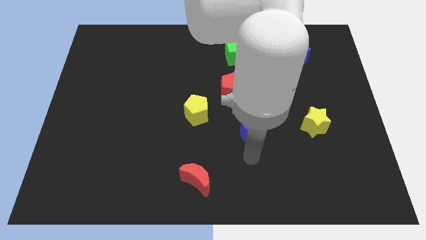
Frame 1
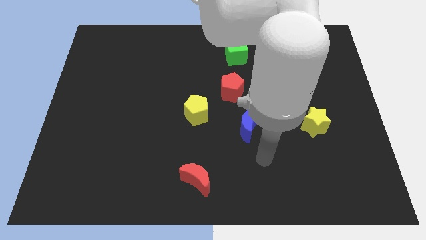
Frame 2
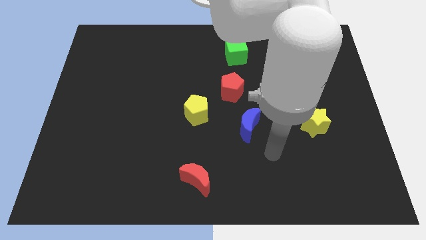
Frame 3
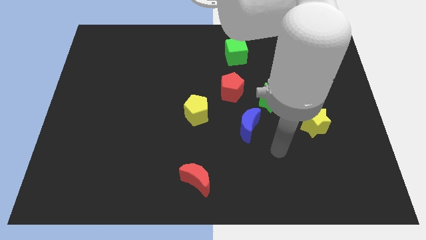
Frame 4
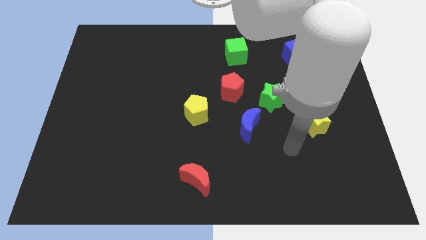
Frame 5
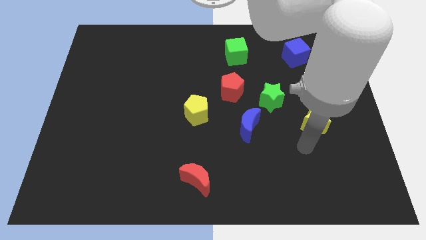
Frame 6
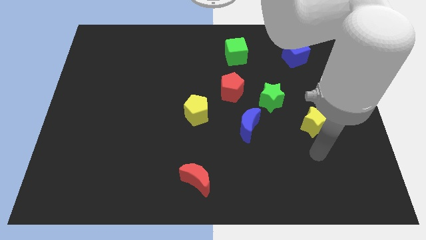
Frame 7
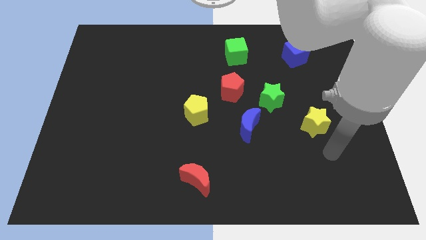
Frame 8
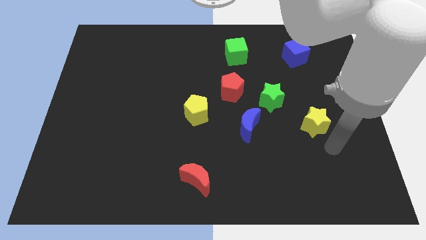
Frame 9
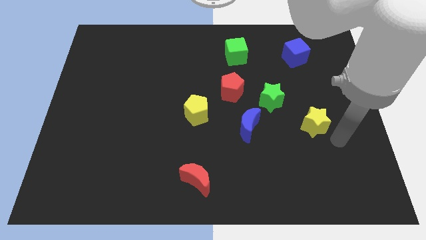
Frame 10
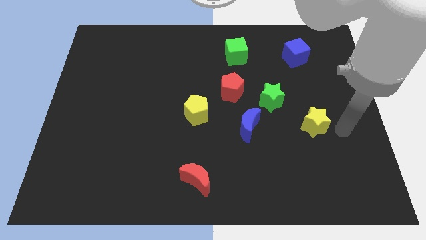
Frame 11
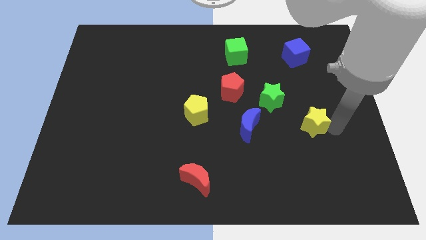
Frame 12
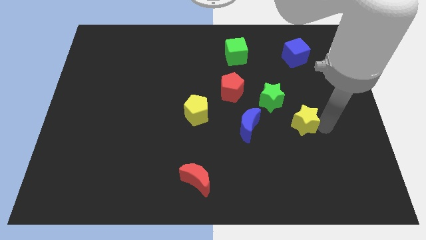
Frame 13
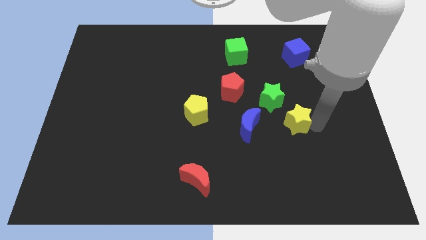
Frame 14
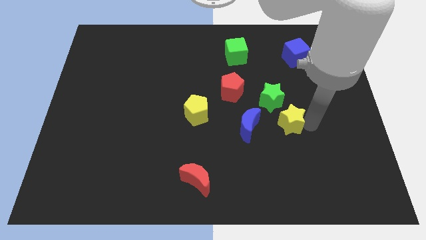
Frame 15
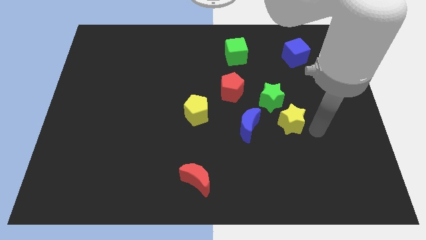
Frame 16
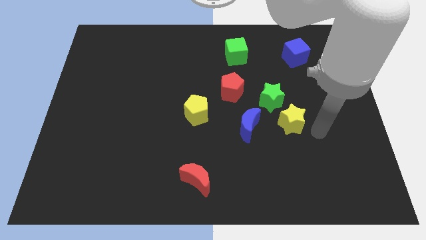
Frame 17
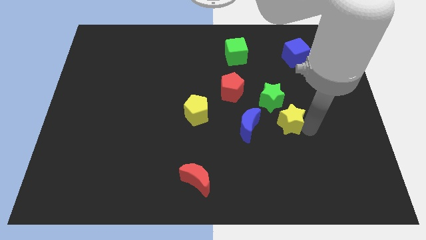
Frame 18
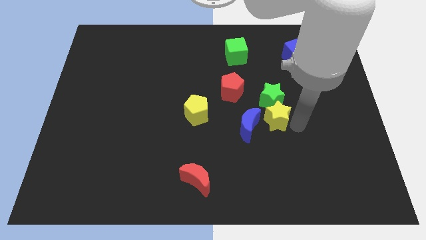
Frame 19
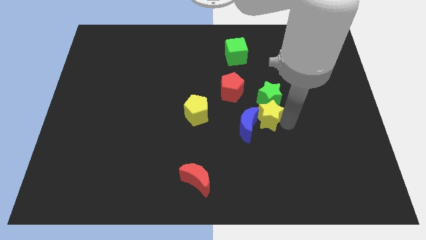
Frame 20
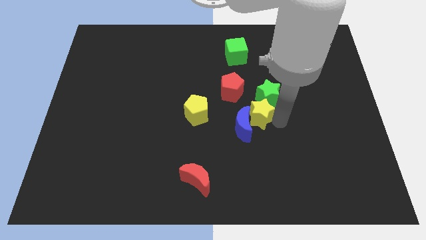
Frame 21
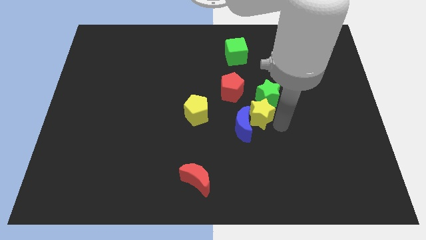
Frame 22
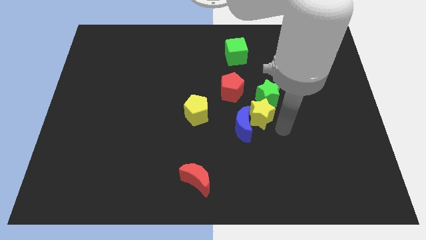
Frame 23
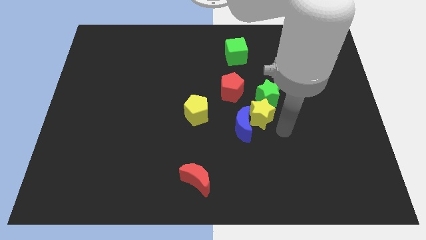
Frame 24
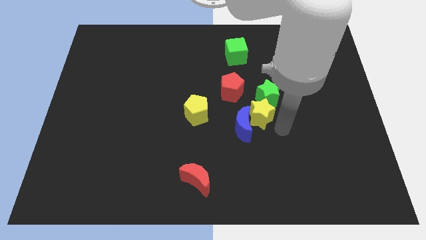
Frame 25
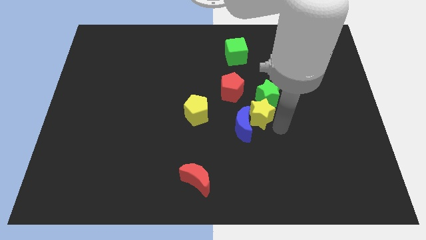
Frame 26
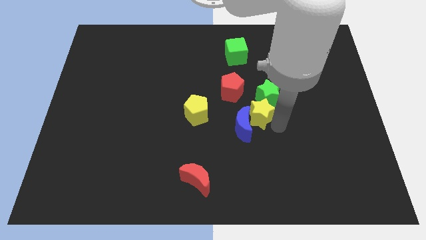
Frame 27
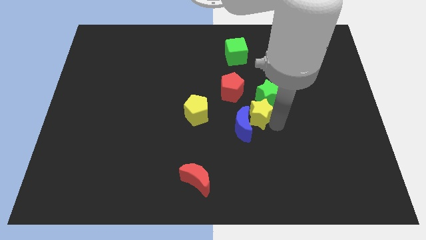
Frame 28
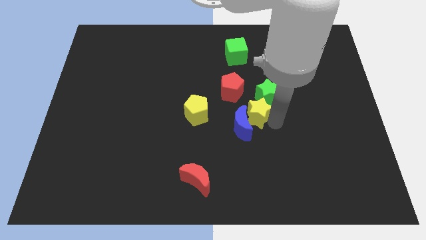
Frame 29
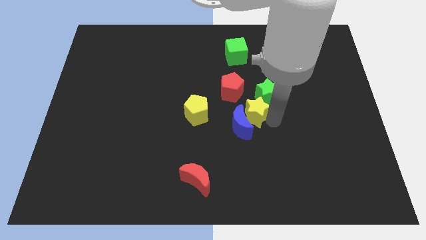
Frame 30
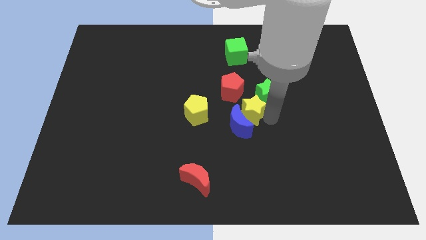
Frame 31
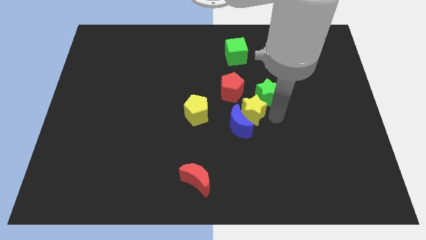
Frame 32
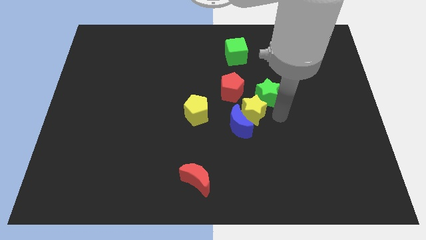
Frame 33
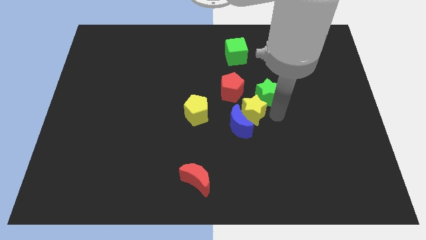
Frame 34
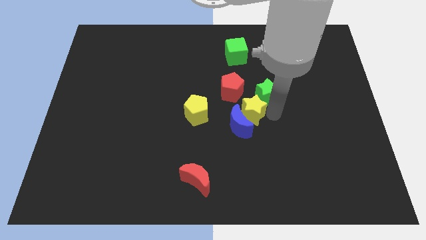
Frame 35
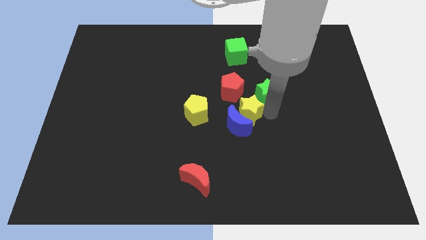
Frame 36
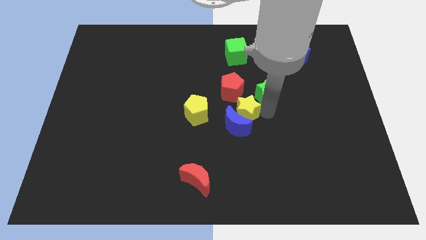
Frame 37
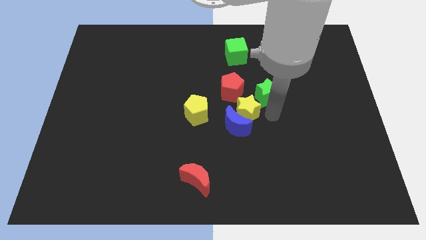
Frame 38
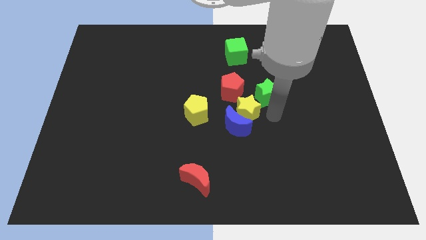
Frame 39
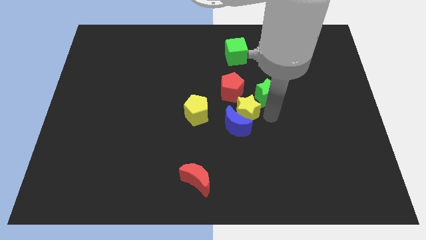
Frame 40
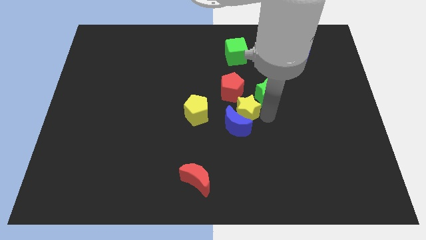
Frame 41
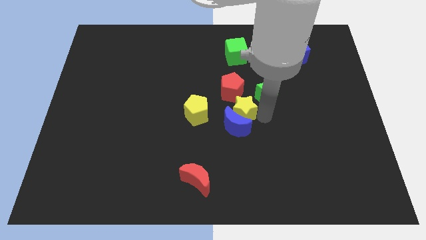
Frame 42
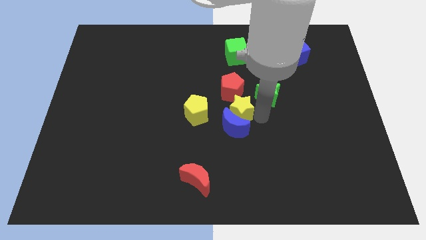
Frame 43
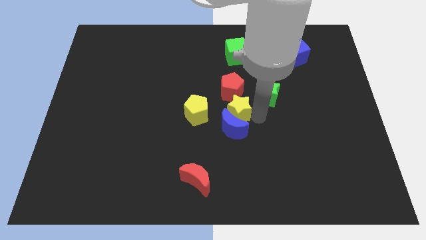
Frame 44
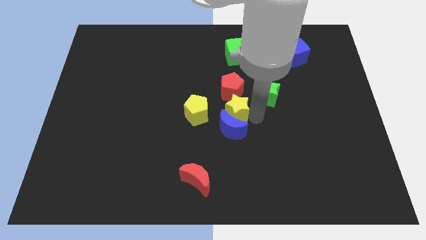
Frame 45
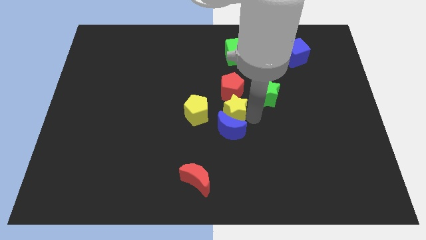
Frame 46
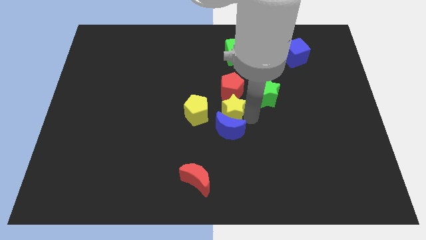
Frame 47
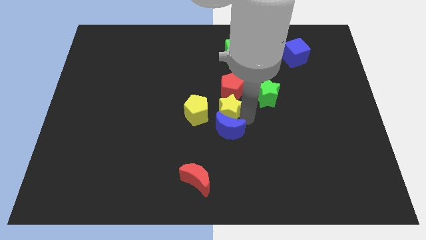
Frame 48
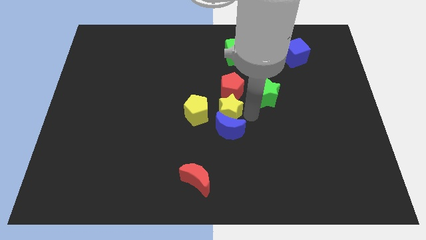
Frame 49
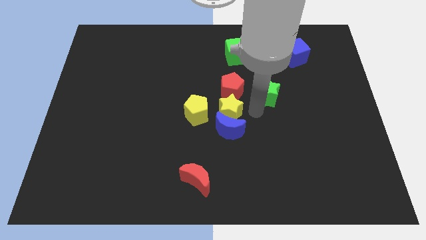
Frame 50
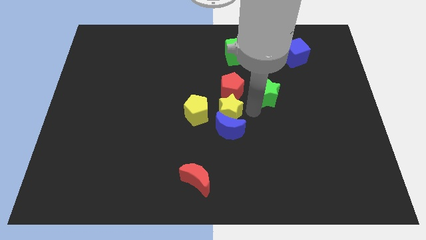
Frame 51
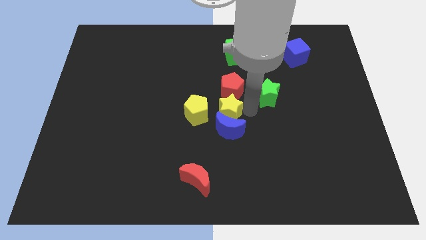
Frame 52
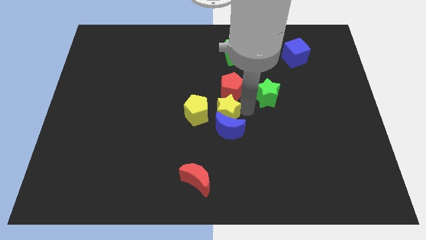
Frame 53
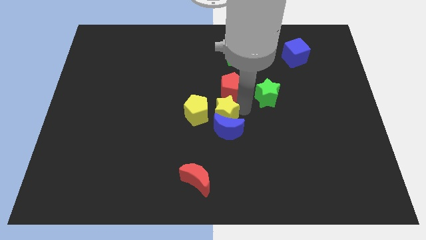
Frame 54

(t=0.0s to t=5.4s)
slide the yellow star close to the yellow pentagon

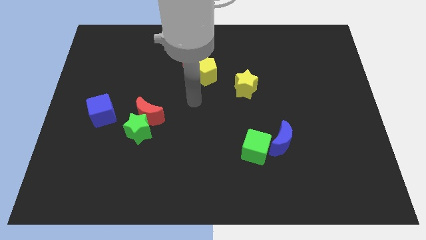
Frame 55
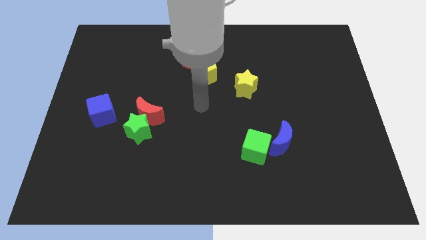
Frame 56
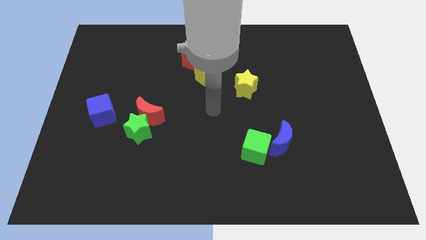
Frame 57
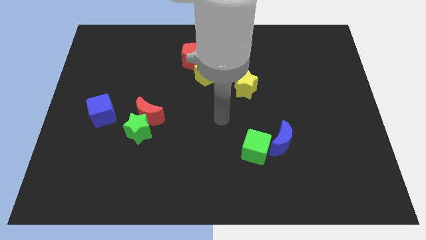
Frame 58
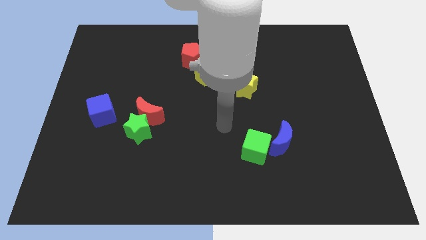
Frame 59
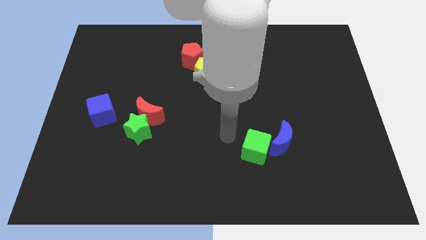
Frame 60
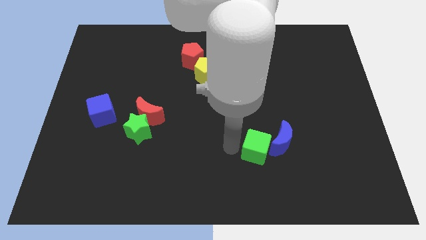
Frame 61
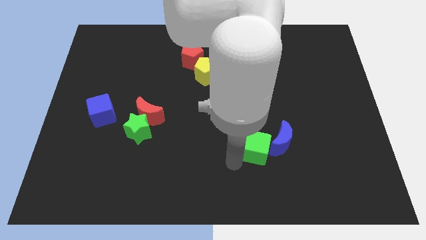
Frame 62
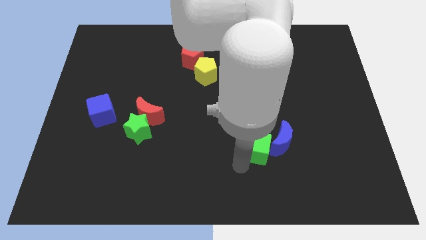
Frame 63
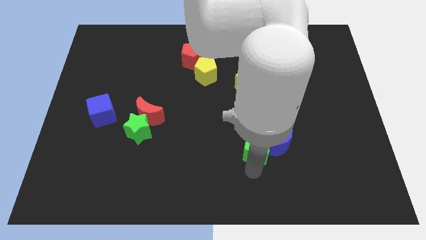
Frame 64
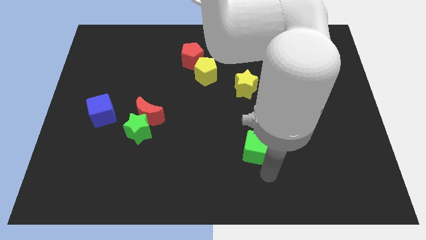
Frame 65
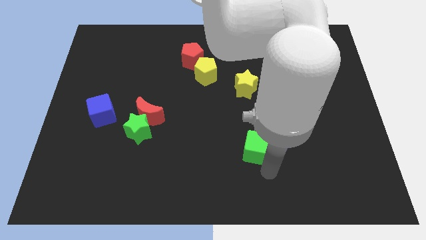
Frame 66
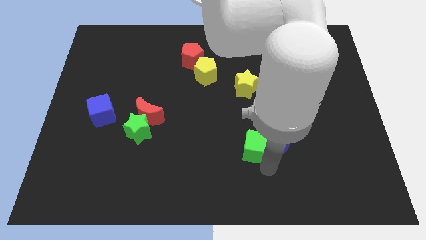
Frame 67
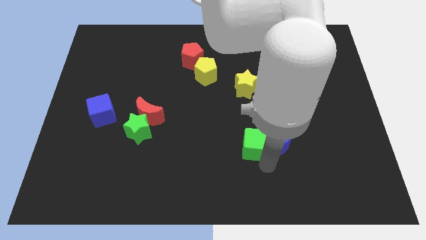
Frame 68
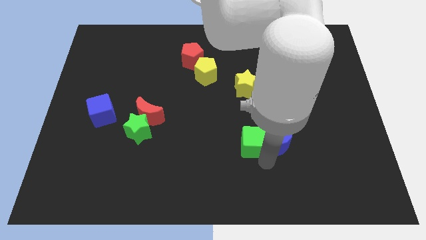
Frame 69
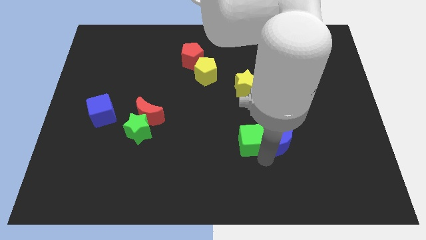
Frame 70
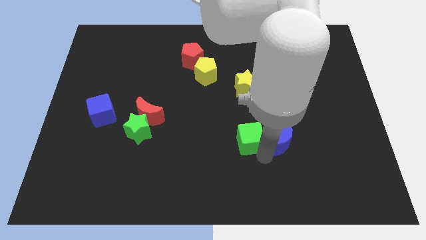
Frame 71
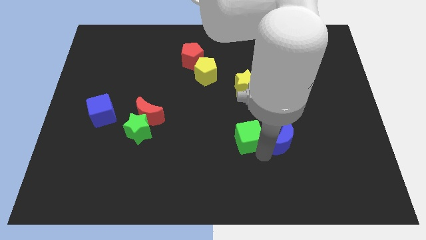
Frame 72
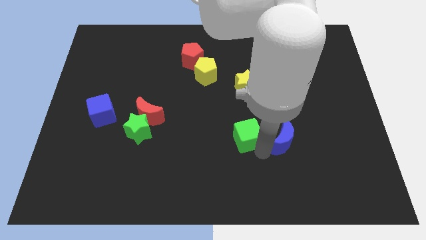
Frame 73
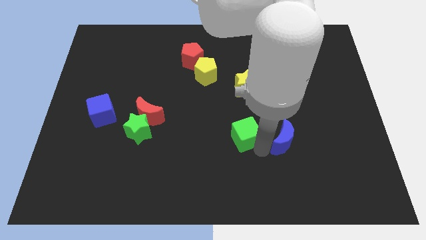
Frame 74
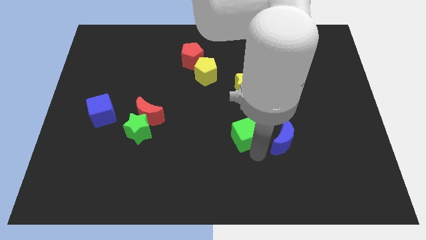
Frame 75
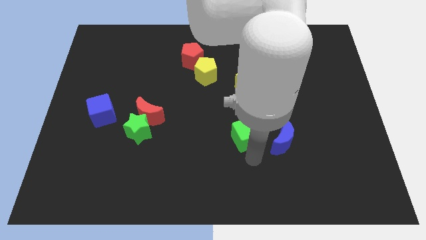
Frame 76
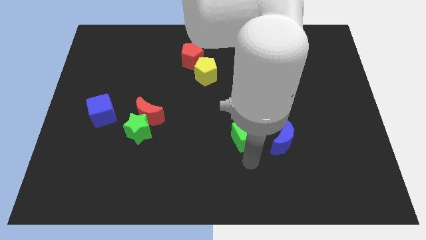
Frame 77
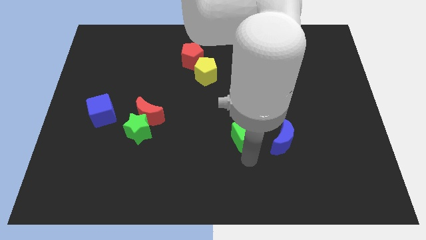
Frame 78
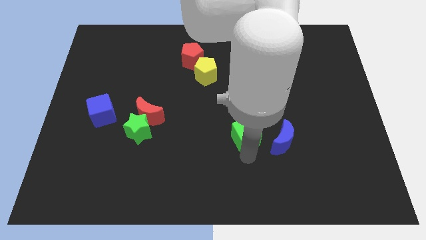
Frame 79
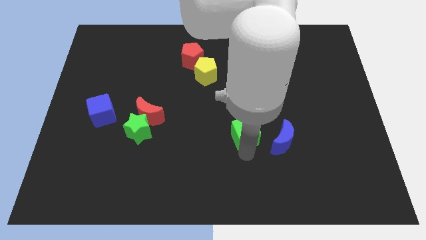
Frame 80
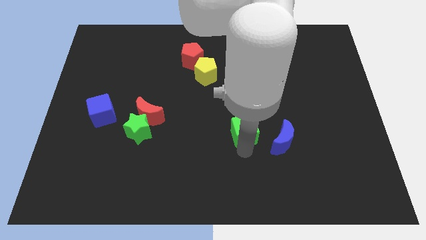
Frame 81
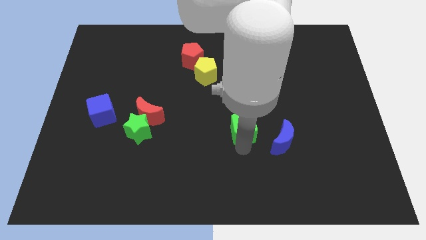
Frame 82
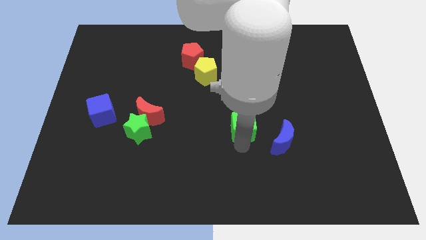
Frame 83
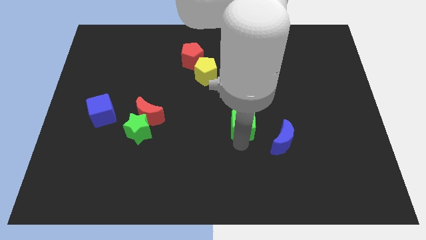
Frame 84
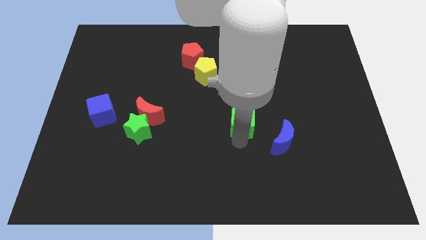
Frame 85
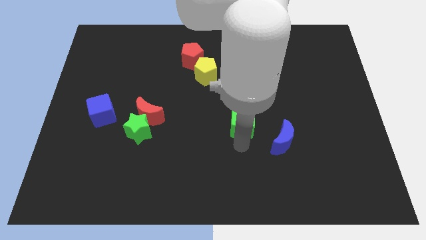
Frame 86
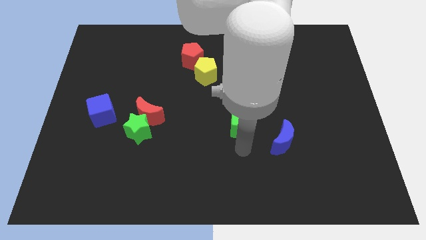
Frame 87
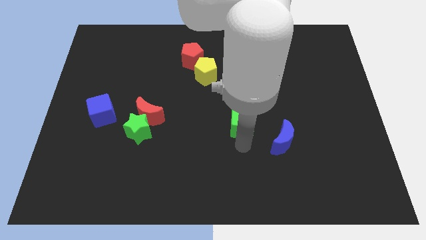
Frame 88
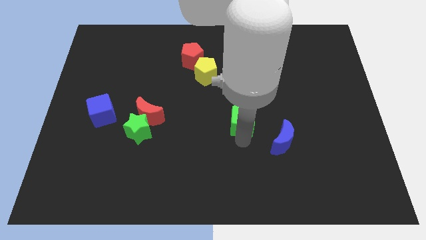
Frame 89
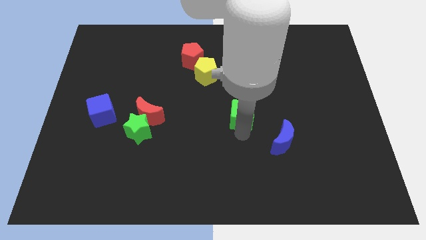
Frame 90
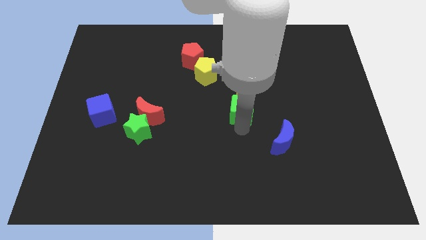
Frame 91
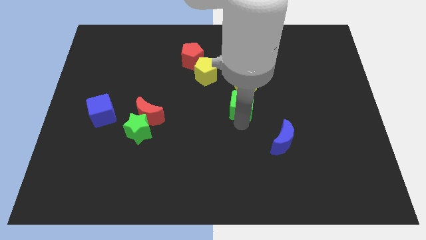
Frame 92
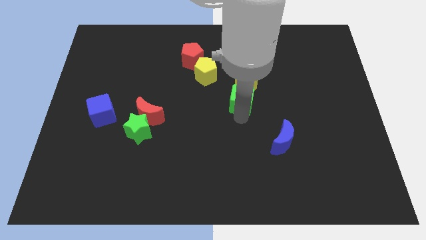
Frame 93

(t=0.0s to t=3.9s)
push the green cube to the yellow star
